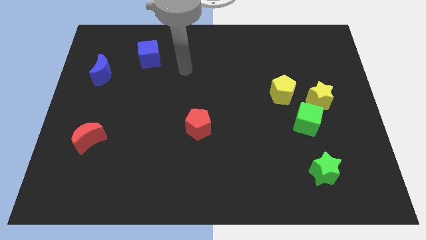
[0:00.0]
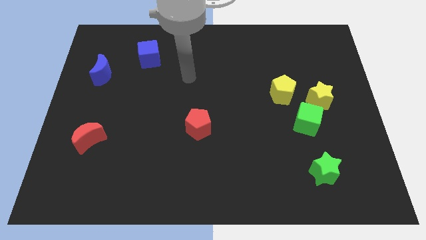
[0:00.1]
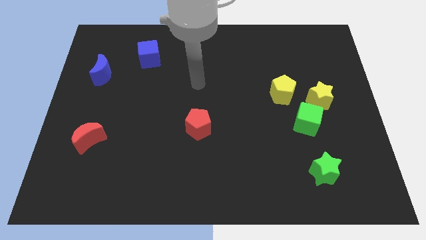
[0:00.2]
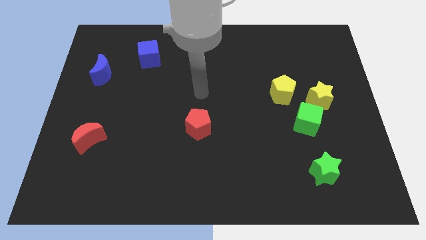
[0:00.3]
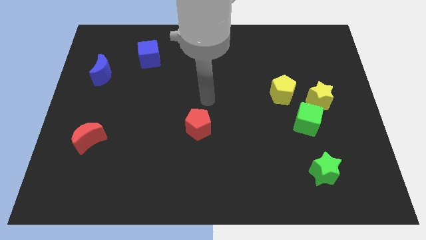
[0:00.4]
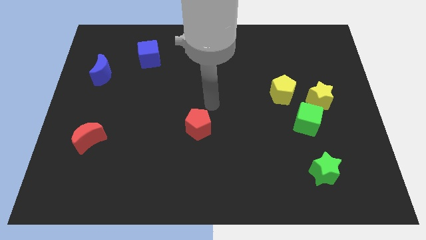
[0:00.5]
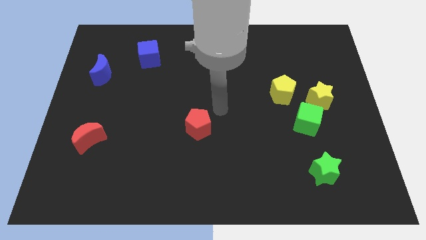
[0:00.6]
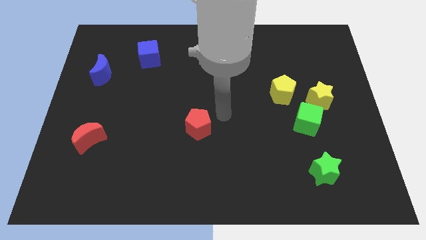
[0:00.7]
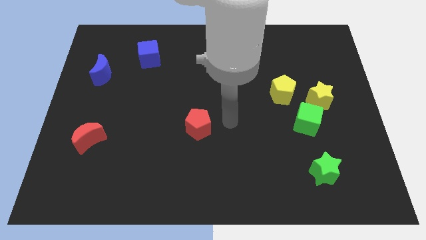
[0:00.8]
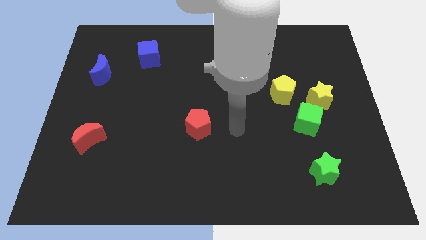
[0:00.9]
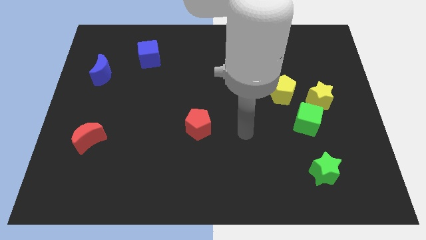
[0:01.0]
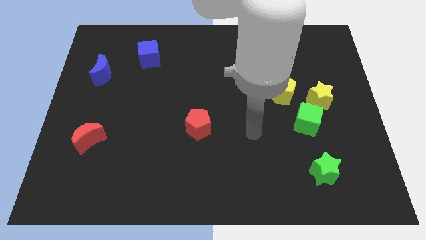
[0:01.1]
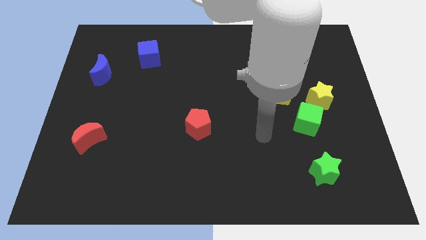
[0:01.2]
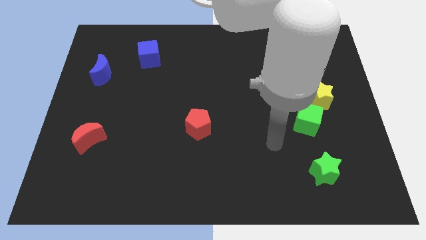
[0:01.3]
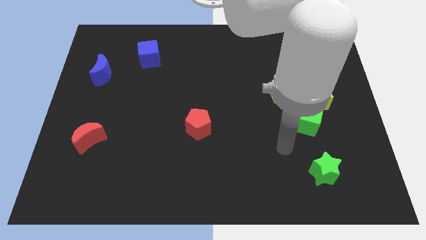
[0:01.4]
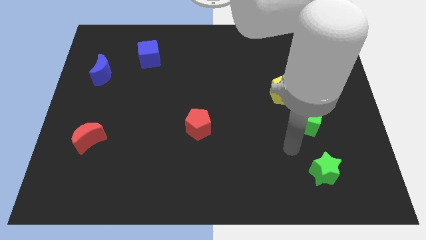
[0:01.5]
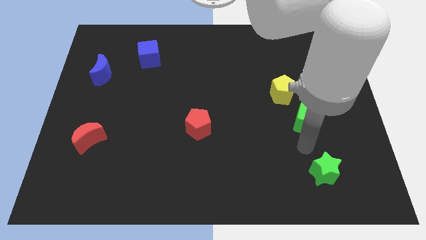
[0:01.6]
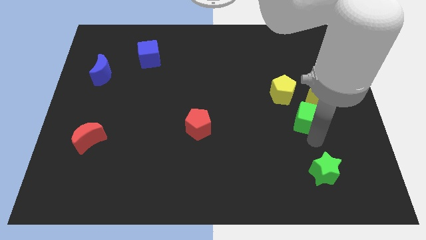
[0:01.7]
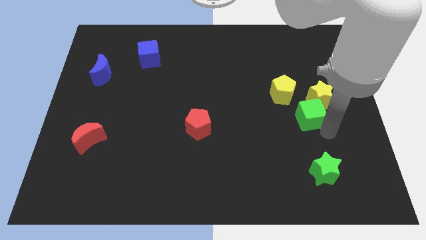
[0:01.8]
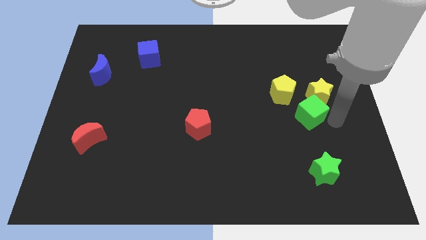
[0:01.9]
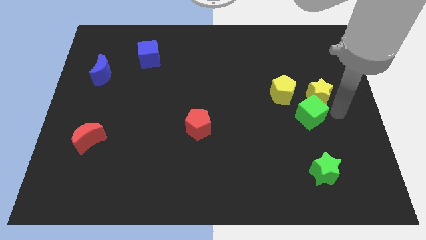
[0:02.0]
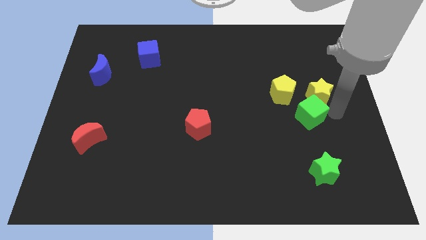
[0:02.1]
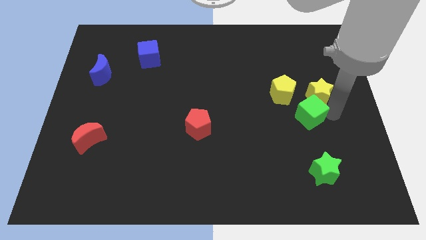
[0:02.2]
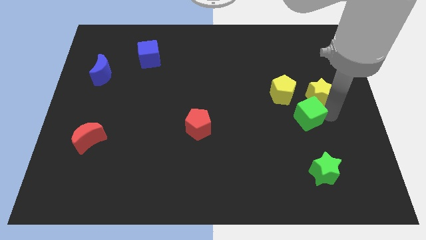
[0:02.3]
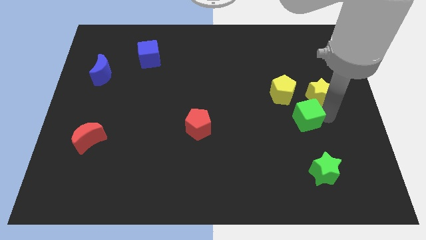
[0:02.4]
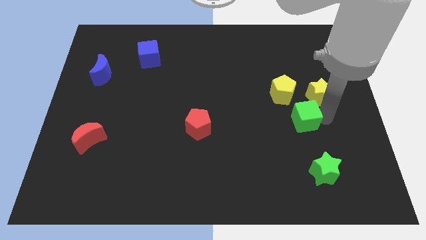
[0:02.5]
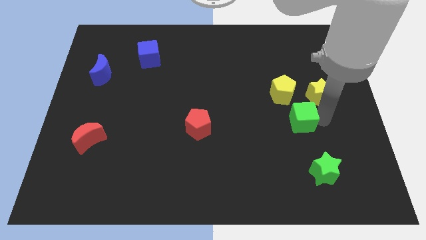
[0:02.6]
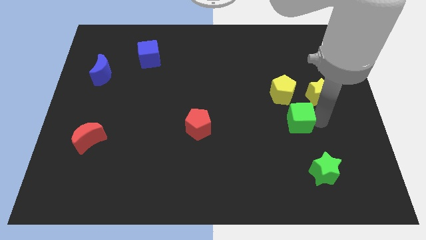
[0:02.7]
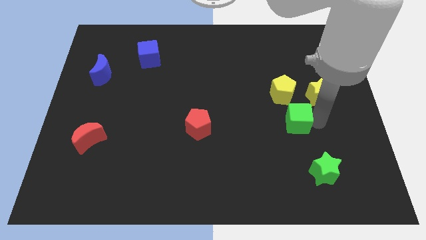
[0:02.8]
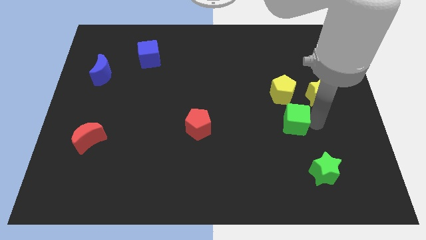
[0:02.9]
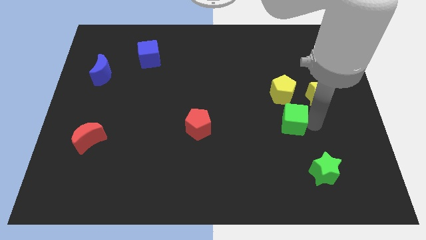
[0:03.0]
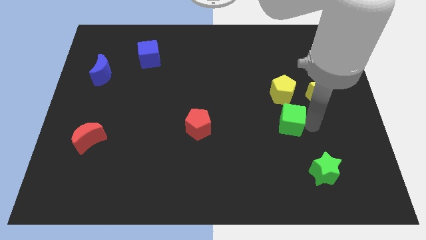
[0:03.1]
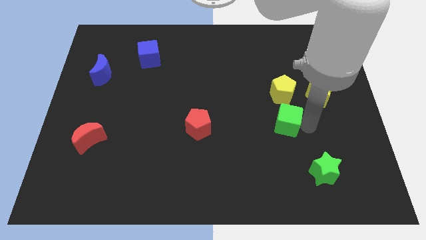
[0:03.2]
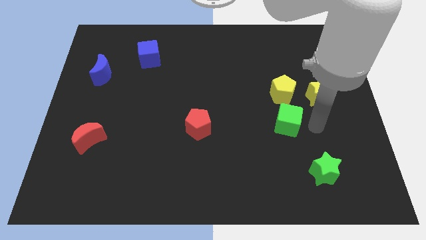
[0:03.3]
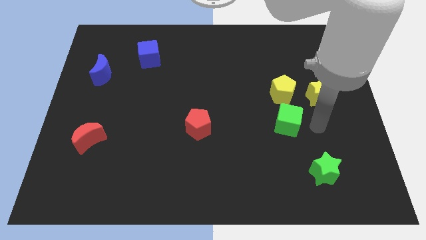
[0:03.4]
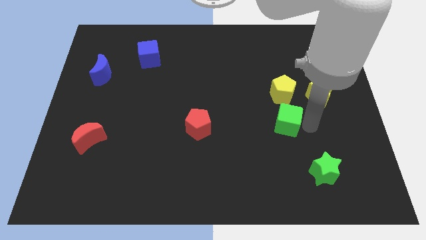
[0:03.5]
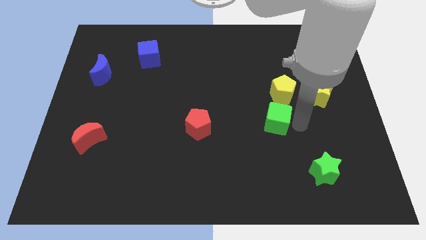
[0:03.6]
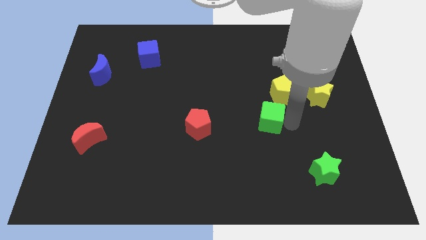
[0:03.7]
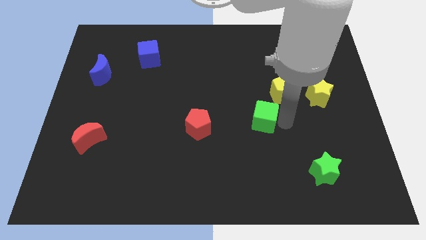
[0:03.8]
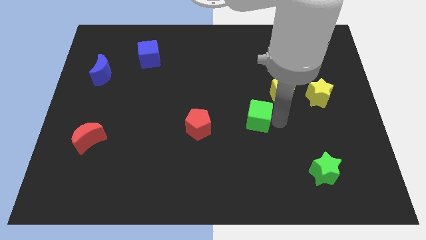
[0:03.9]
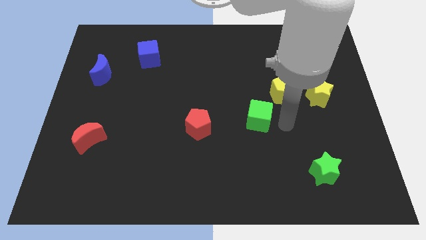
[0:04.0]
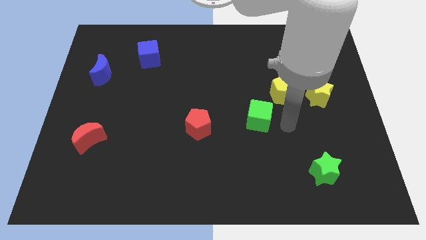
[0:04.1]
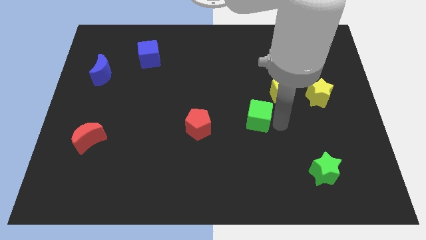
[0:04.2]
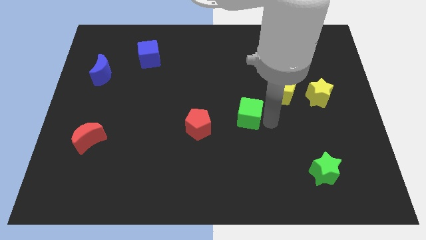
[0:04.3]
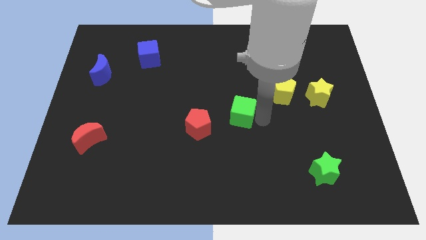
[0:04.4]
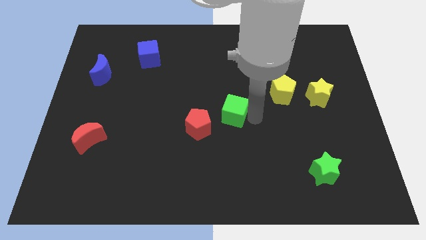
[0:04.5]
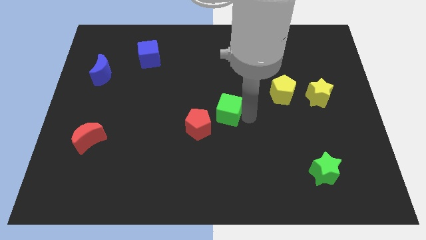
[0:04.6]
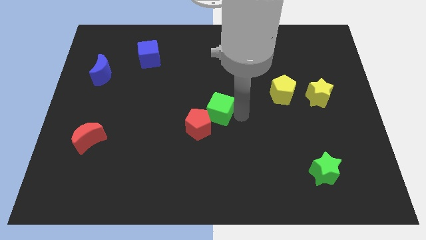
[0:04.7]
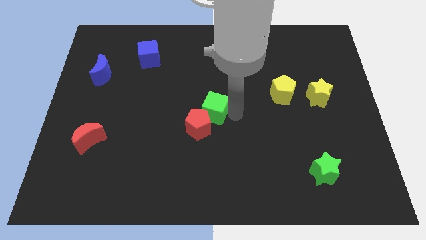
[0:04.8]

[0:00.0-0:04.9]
move the green cube to the left

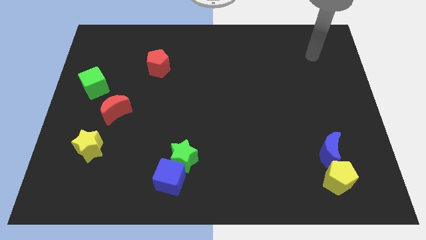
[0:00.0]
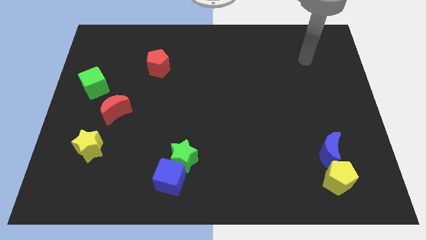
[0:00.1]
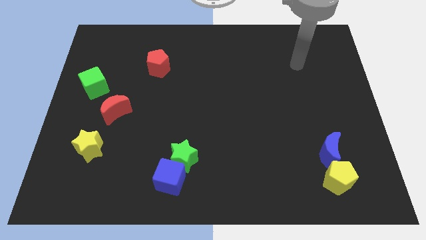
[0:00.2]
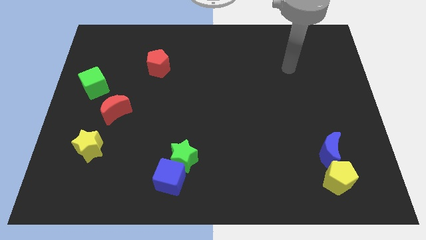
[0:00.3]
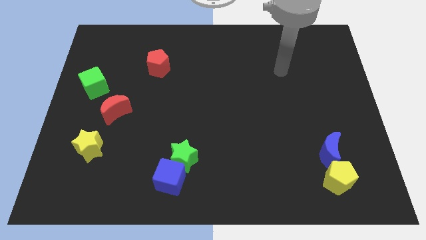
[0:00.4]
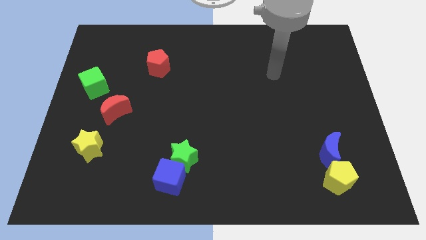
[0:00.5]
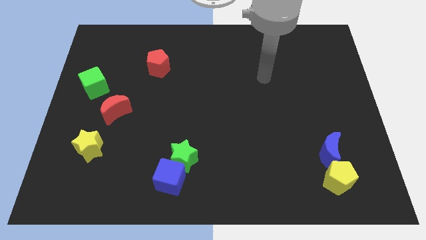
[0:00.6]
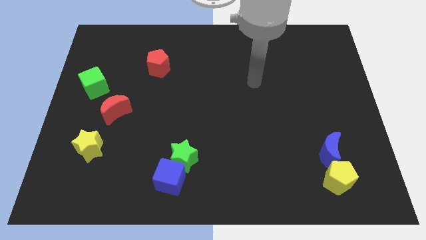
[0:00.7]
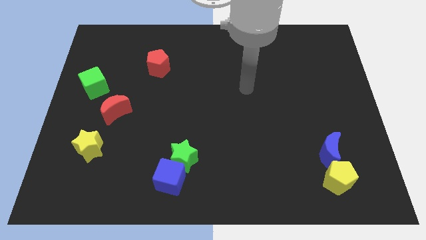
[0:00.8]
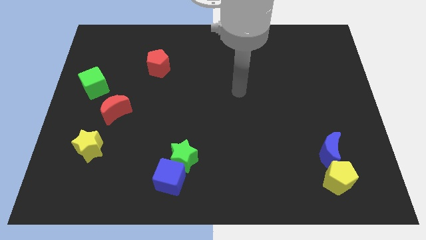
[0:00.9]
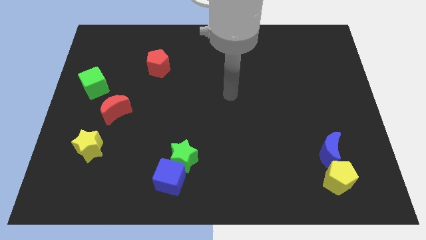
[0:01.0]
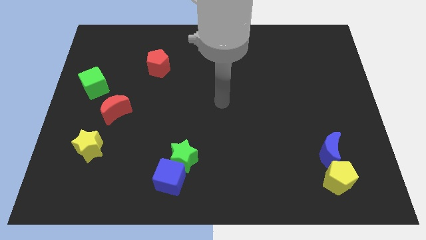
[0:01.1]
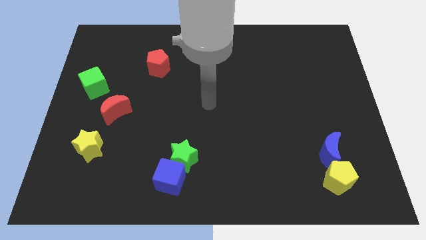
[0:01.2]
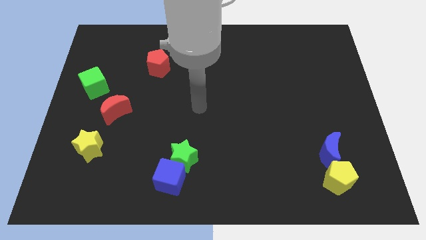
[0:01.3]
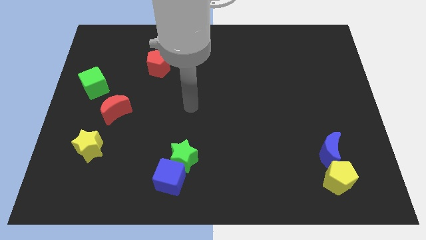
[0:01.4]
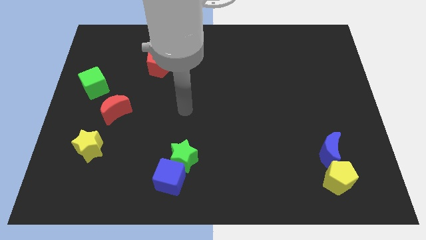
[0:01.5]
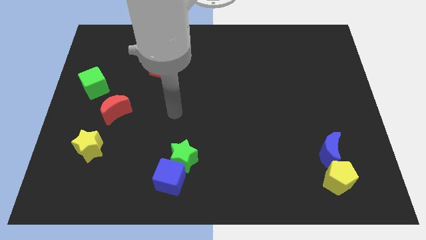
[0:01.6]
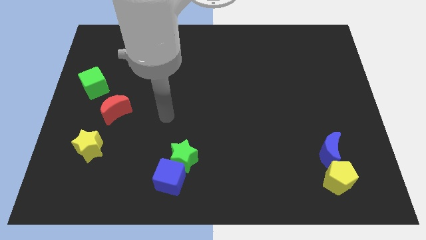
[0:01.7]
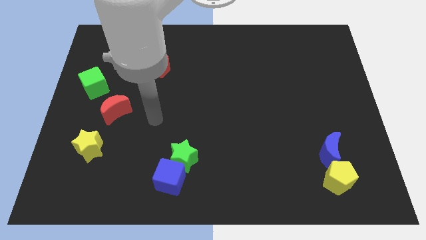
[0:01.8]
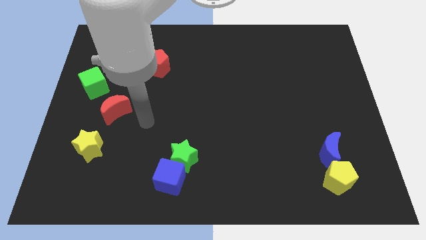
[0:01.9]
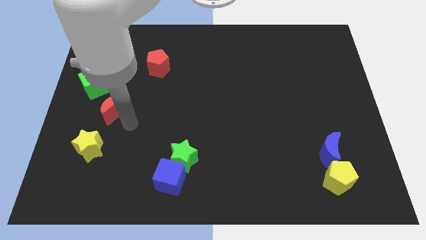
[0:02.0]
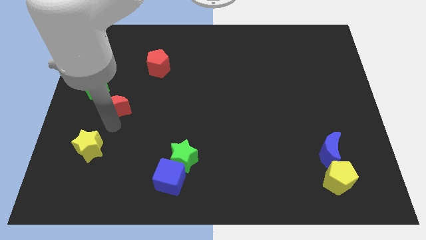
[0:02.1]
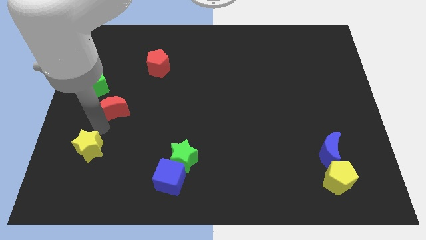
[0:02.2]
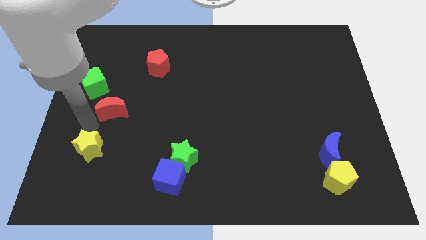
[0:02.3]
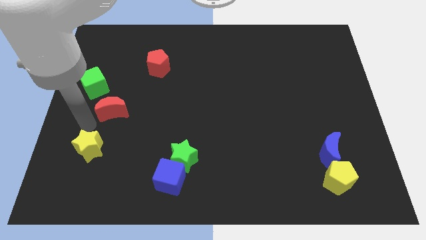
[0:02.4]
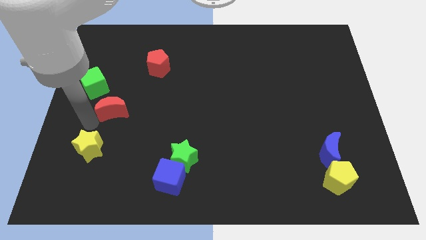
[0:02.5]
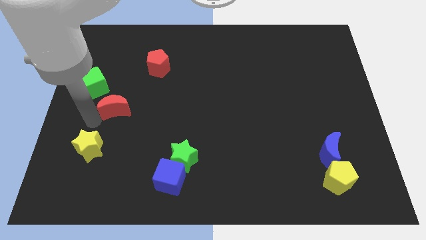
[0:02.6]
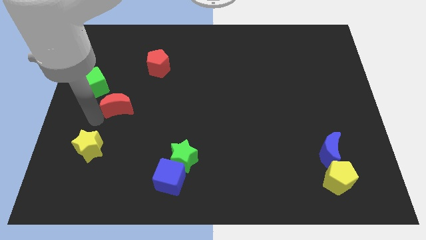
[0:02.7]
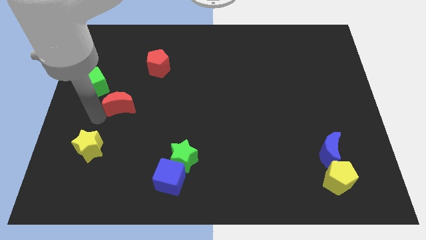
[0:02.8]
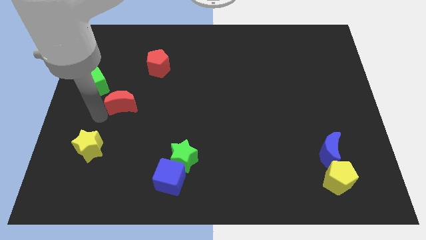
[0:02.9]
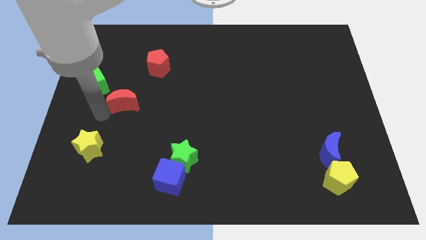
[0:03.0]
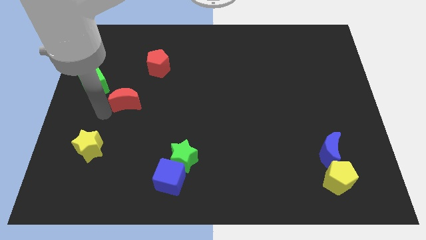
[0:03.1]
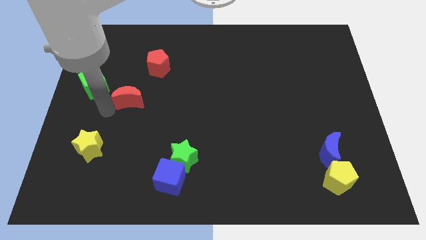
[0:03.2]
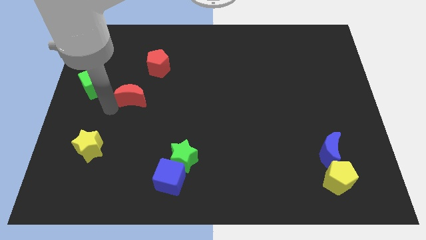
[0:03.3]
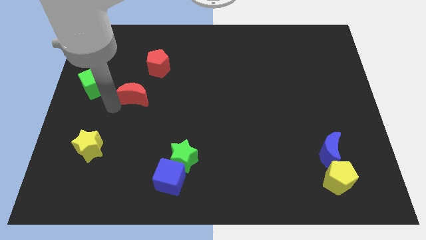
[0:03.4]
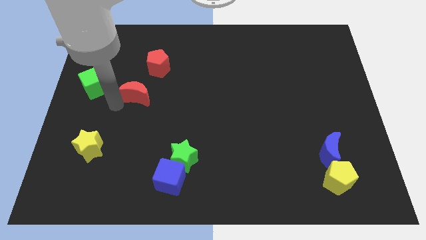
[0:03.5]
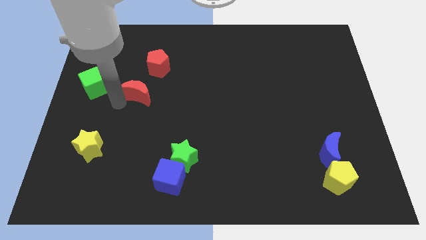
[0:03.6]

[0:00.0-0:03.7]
slide the red moon diagonally up and to the right a bit
